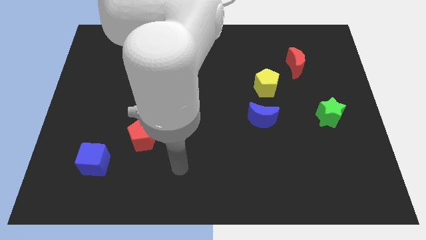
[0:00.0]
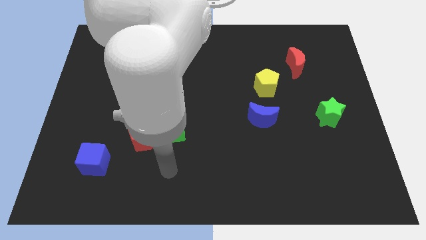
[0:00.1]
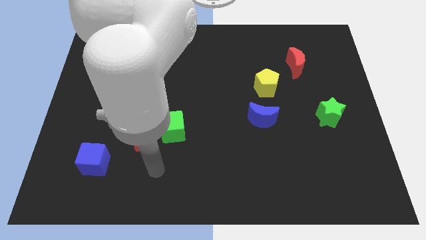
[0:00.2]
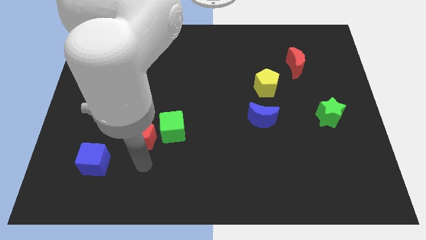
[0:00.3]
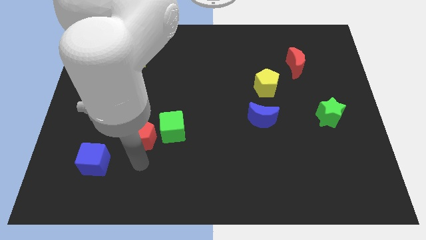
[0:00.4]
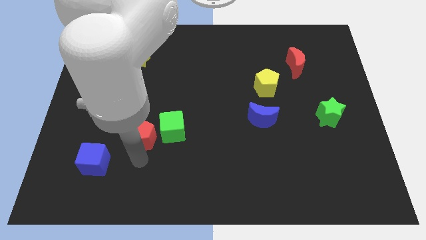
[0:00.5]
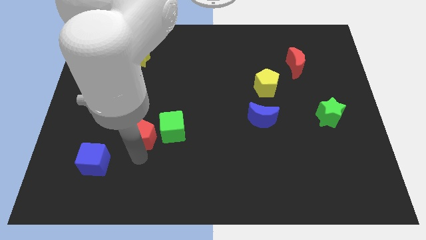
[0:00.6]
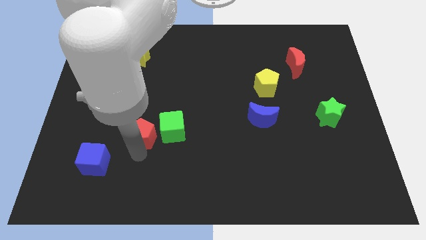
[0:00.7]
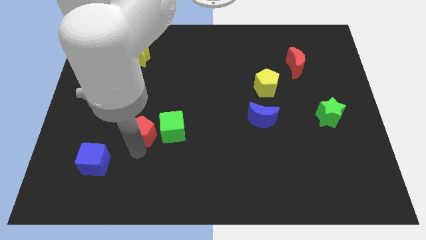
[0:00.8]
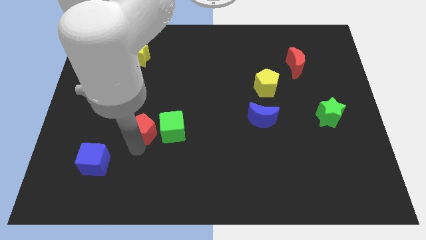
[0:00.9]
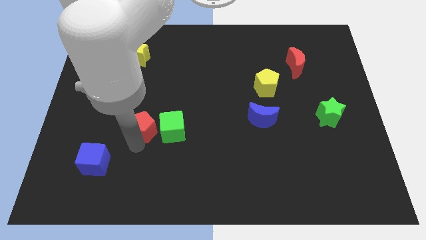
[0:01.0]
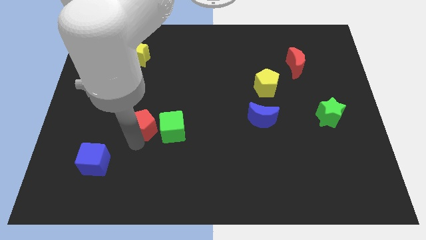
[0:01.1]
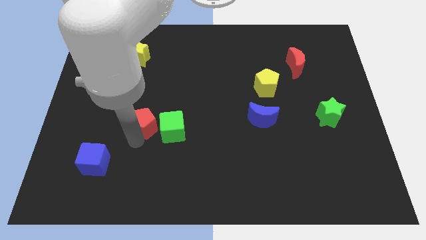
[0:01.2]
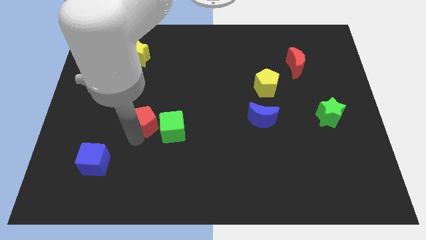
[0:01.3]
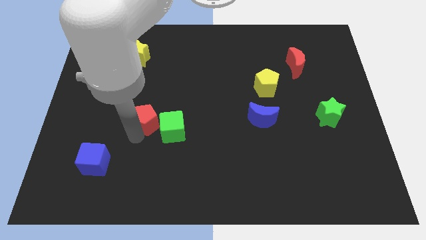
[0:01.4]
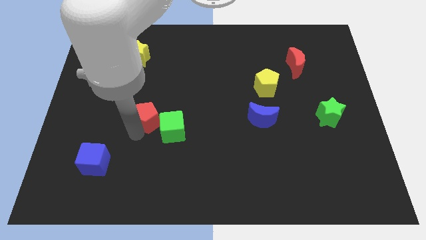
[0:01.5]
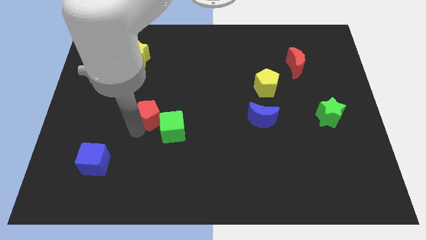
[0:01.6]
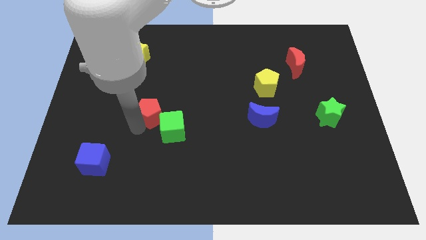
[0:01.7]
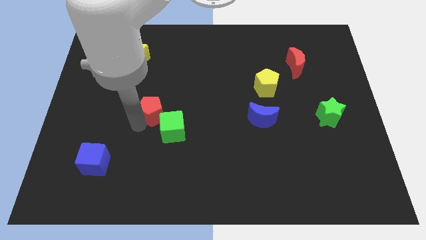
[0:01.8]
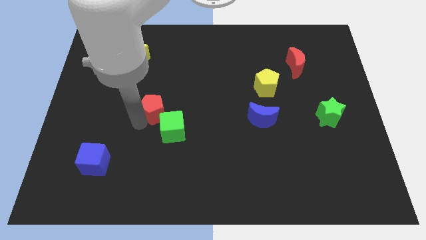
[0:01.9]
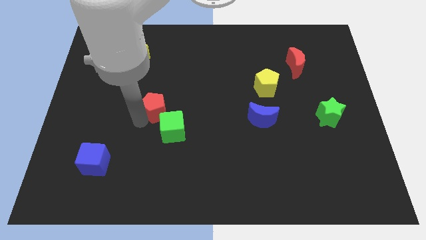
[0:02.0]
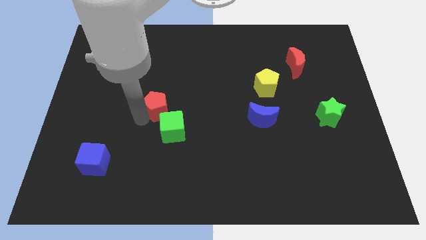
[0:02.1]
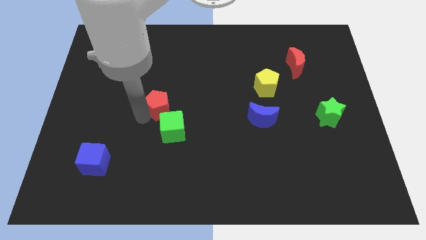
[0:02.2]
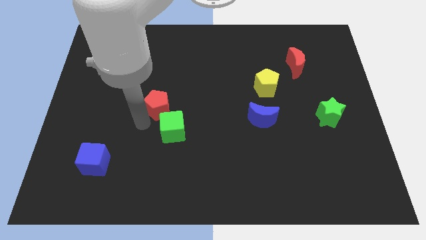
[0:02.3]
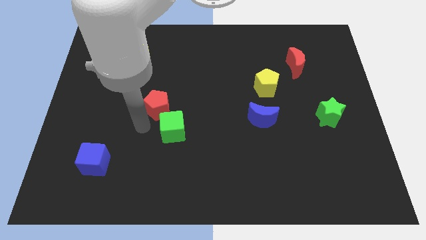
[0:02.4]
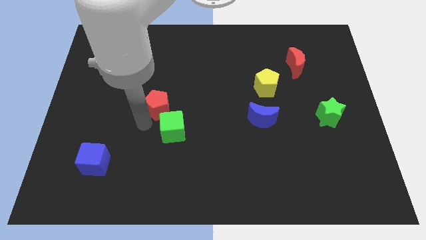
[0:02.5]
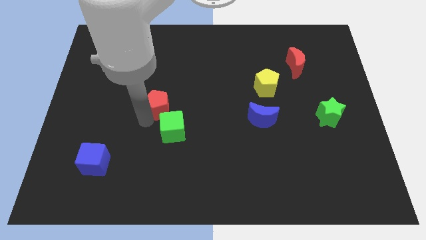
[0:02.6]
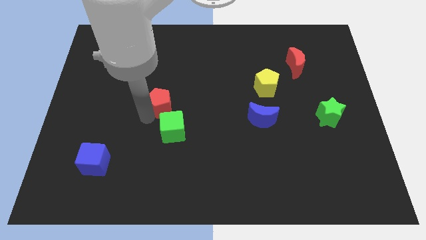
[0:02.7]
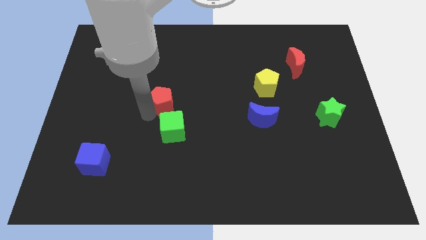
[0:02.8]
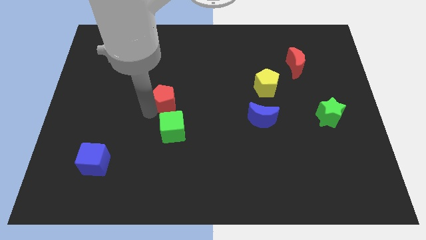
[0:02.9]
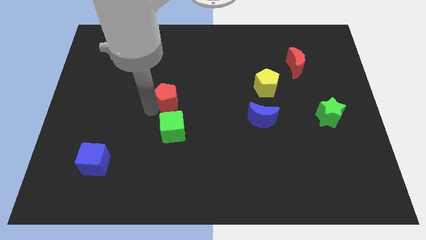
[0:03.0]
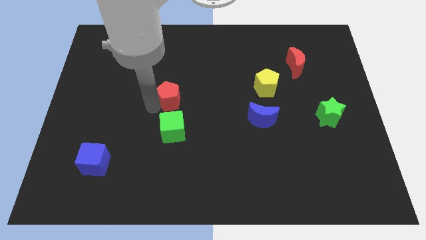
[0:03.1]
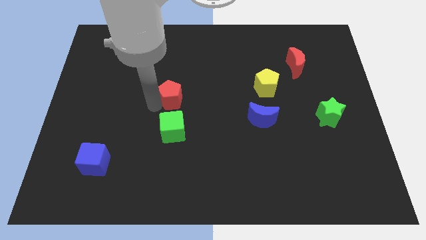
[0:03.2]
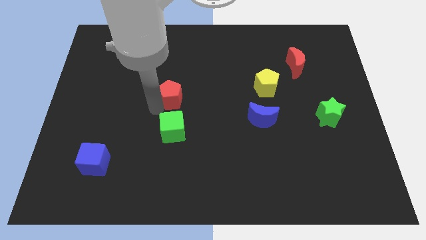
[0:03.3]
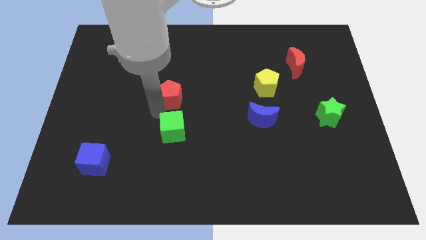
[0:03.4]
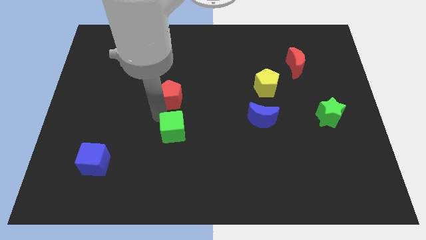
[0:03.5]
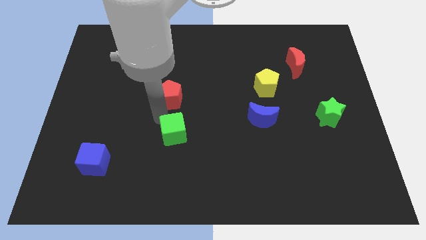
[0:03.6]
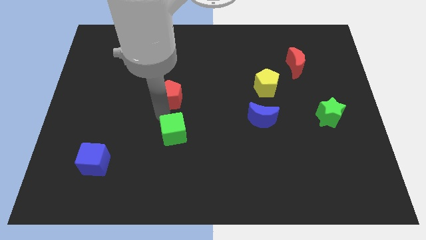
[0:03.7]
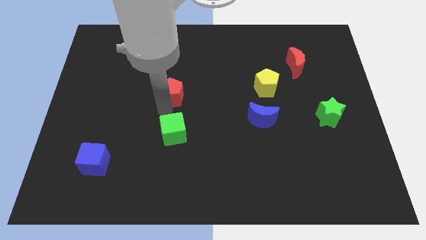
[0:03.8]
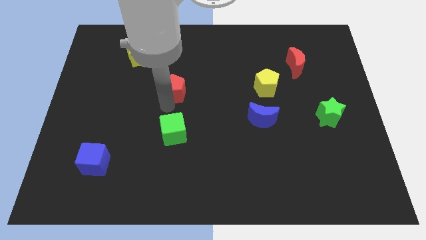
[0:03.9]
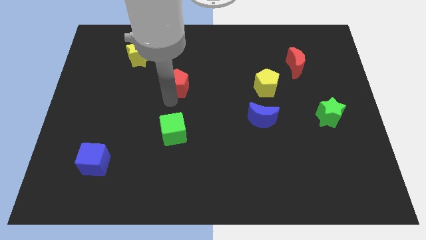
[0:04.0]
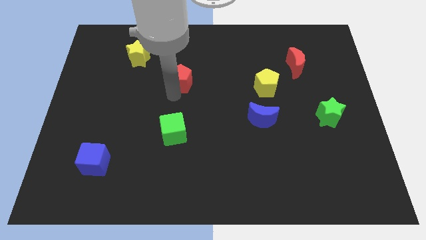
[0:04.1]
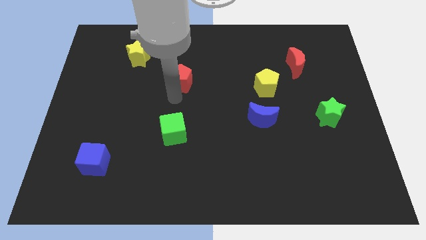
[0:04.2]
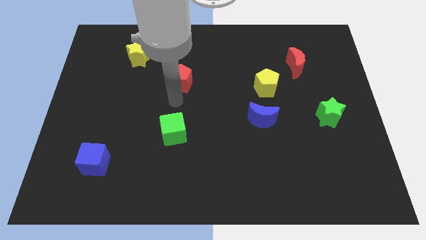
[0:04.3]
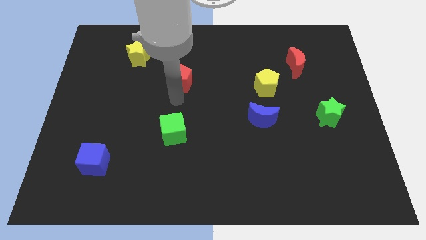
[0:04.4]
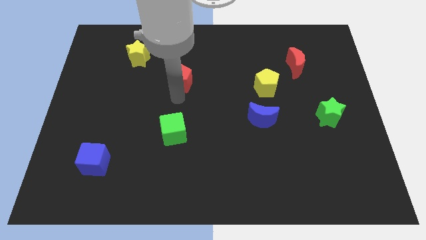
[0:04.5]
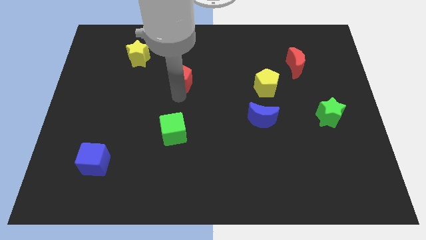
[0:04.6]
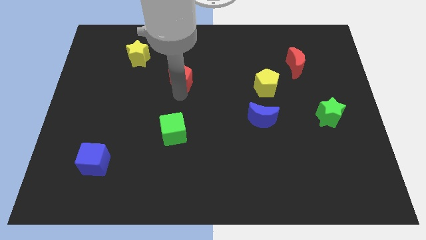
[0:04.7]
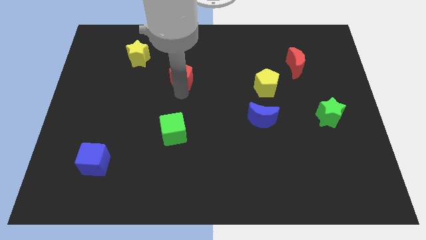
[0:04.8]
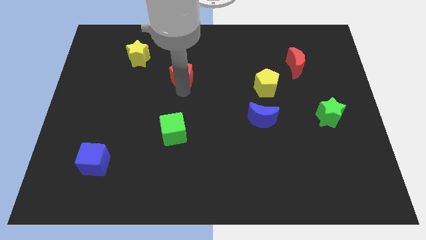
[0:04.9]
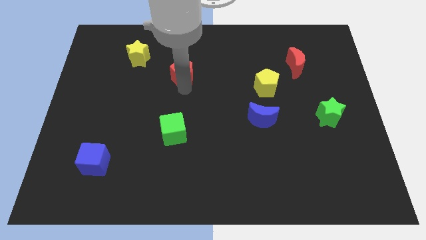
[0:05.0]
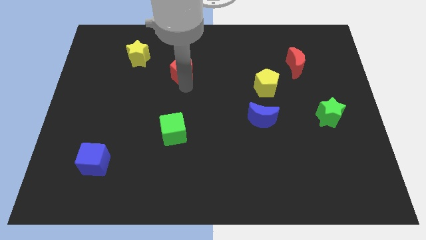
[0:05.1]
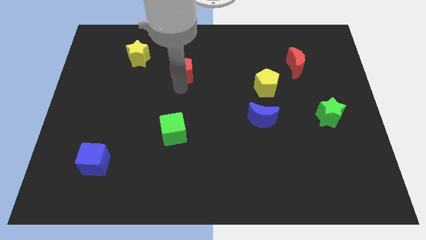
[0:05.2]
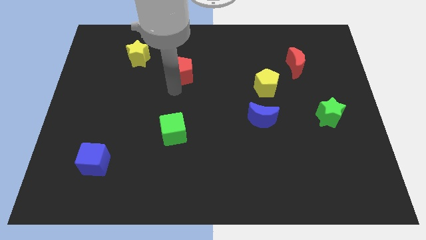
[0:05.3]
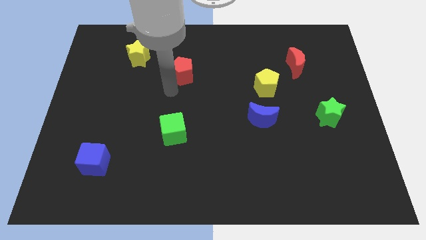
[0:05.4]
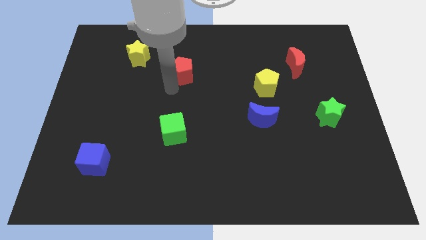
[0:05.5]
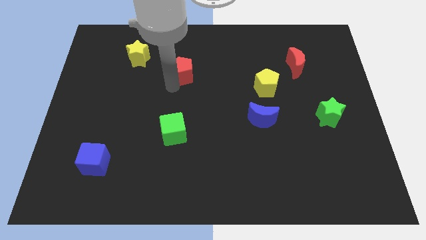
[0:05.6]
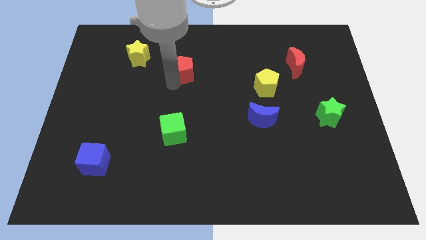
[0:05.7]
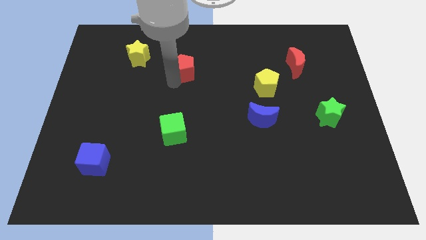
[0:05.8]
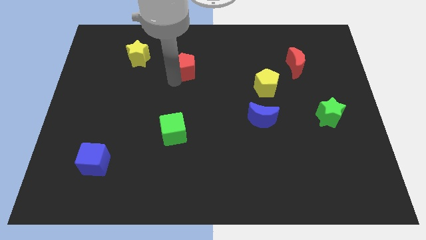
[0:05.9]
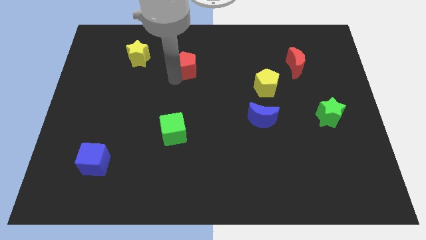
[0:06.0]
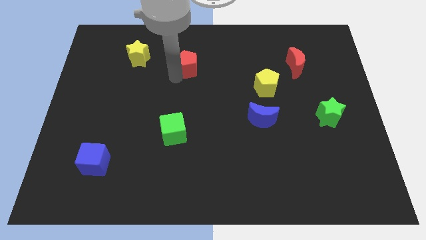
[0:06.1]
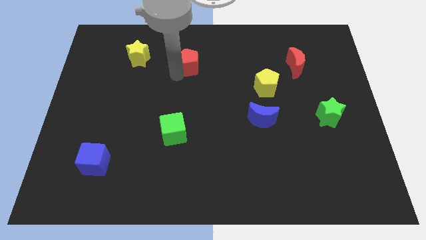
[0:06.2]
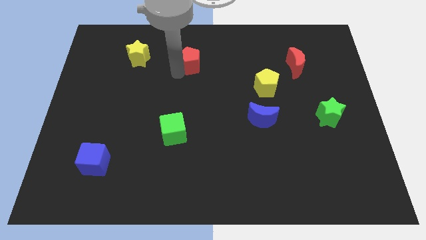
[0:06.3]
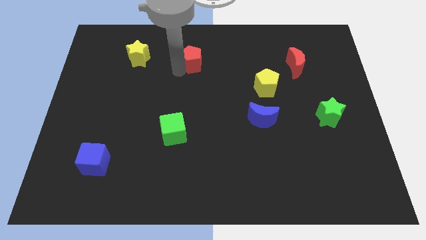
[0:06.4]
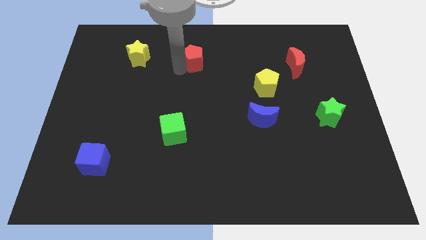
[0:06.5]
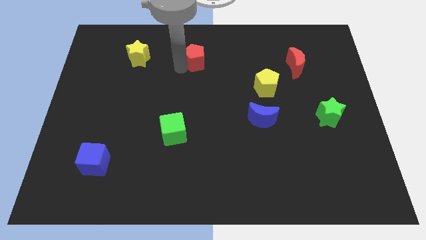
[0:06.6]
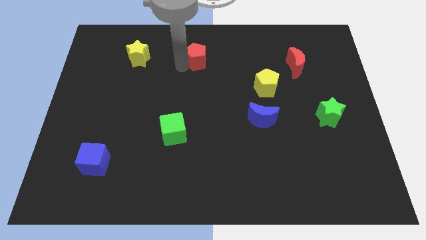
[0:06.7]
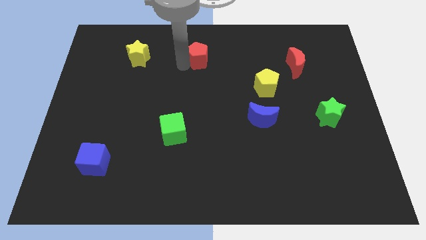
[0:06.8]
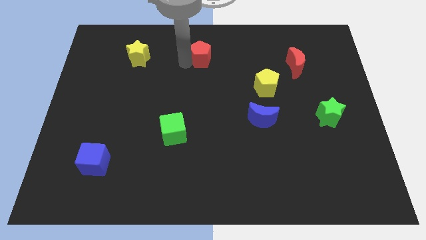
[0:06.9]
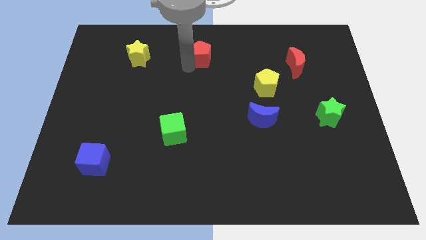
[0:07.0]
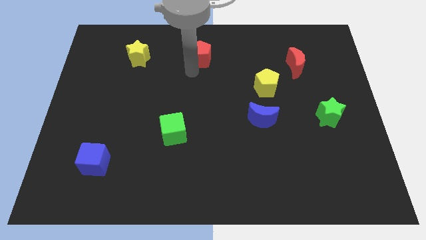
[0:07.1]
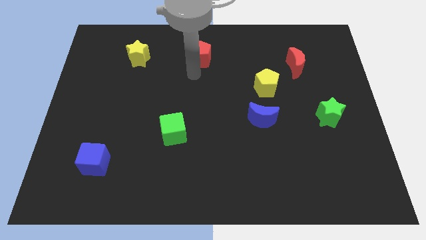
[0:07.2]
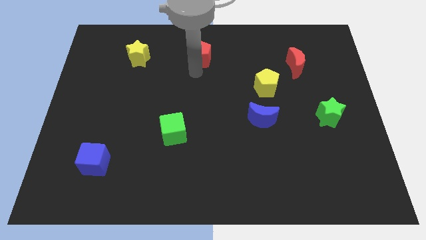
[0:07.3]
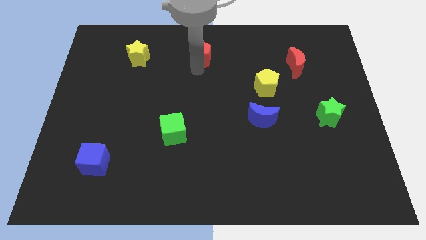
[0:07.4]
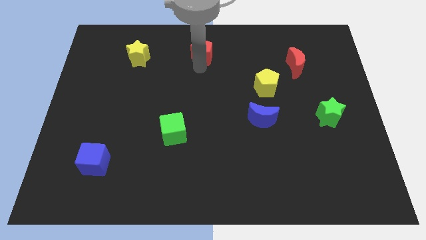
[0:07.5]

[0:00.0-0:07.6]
slide the red pentagon to the top side
